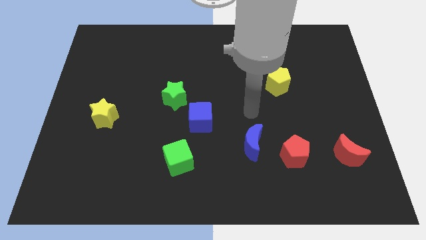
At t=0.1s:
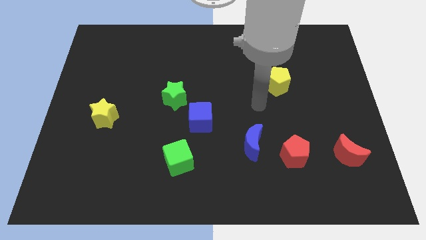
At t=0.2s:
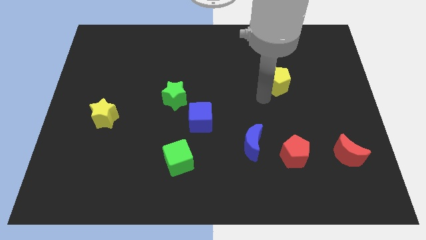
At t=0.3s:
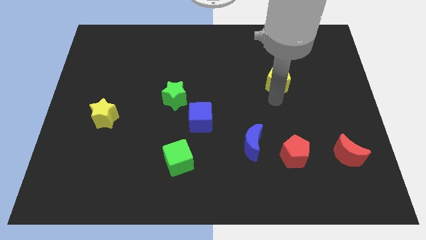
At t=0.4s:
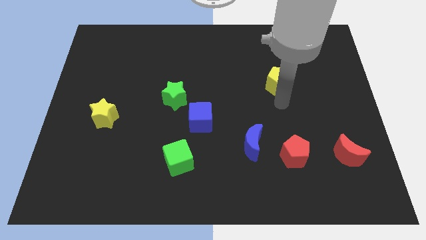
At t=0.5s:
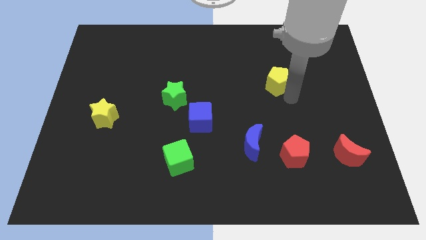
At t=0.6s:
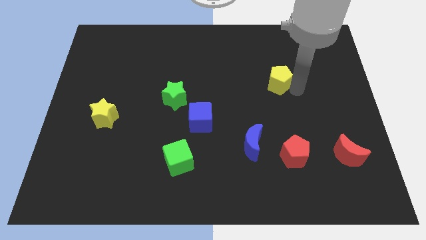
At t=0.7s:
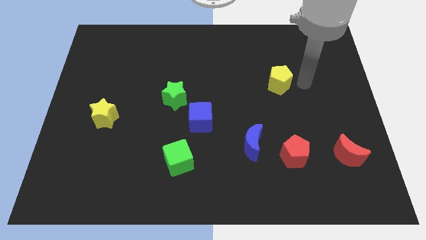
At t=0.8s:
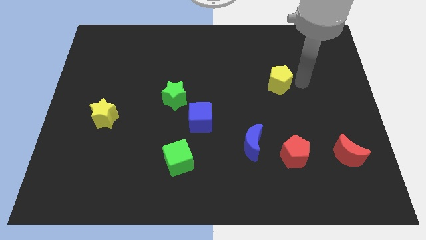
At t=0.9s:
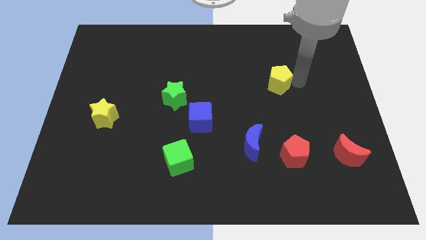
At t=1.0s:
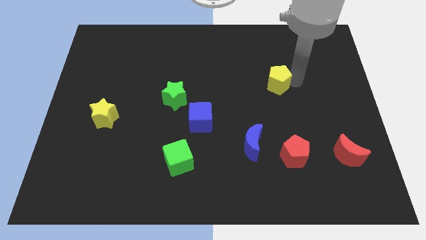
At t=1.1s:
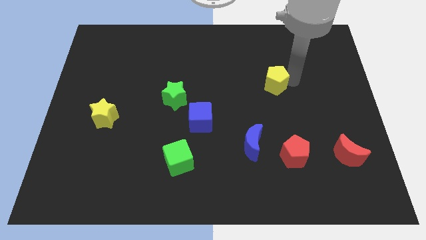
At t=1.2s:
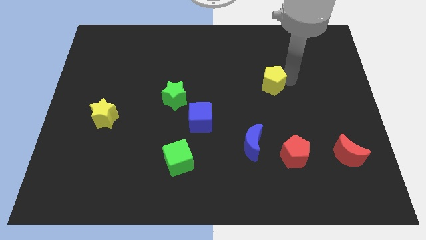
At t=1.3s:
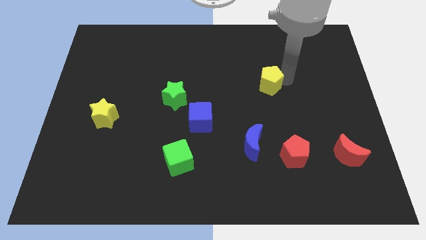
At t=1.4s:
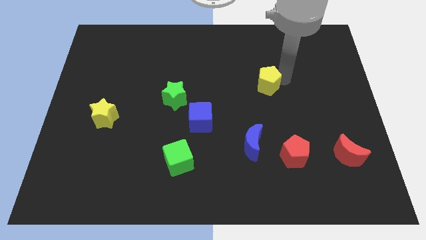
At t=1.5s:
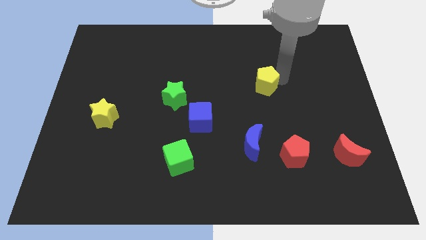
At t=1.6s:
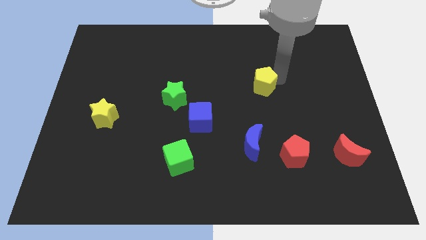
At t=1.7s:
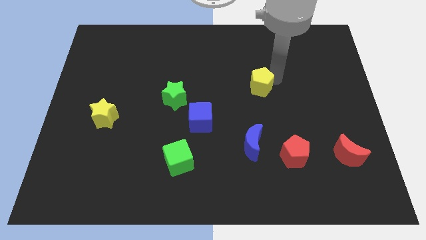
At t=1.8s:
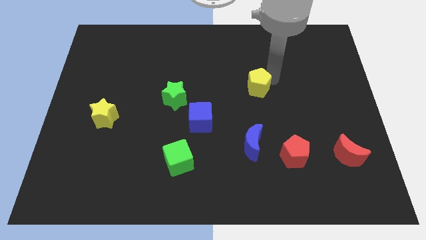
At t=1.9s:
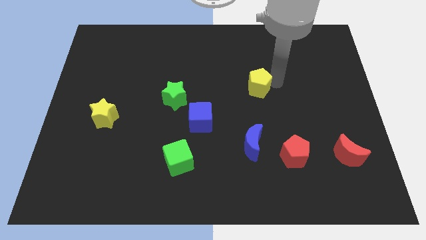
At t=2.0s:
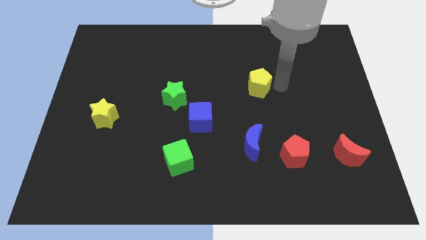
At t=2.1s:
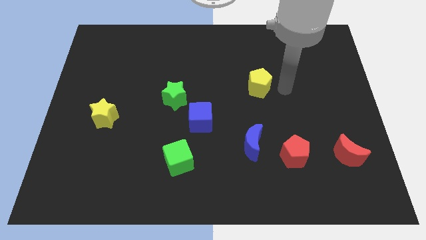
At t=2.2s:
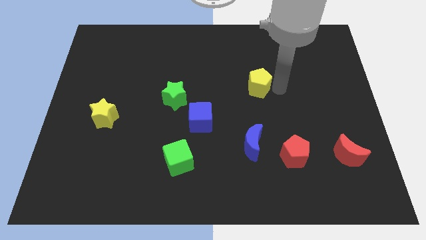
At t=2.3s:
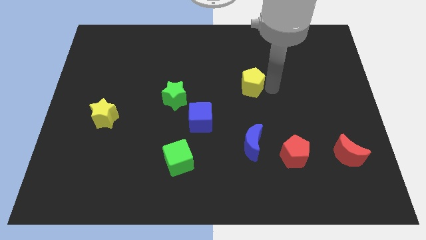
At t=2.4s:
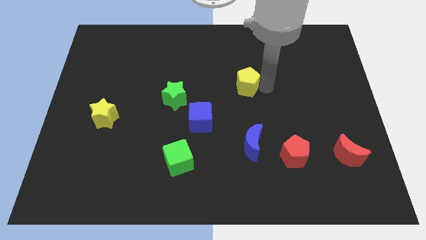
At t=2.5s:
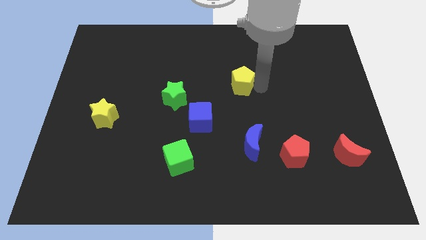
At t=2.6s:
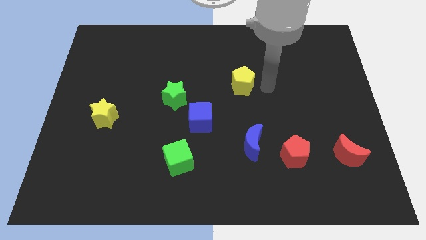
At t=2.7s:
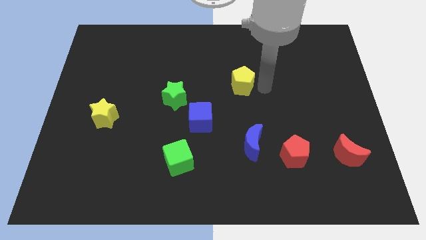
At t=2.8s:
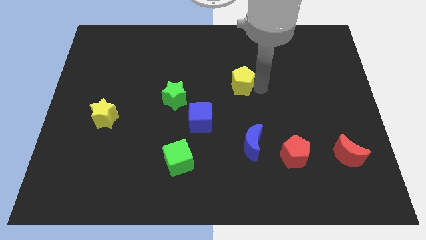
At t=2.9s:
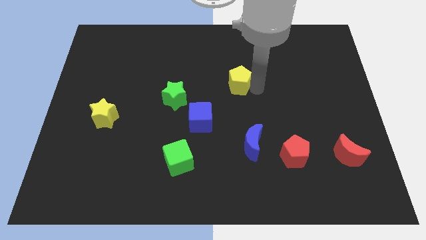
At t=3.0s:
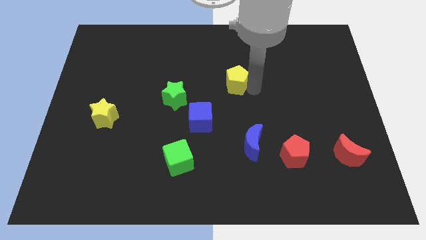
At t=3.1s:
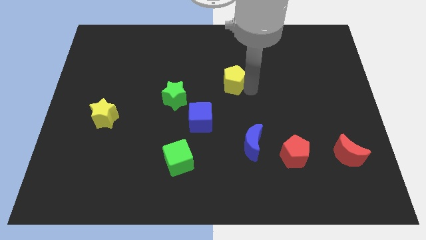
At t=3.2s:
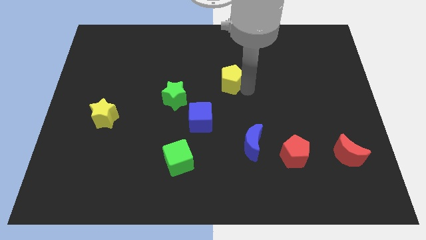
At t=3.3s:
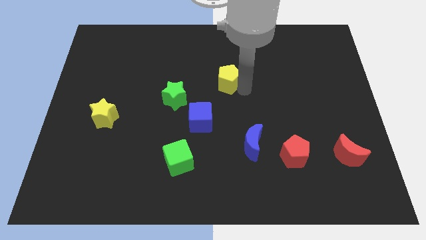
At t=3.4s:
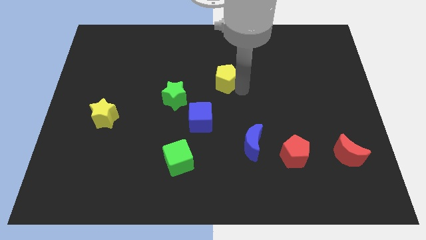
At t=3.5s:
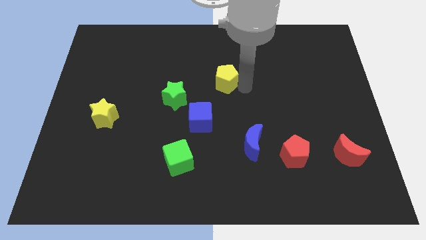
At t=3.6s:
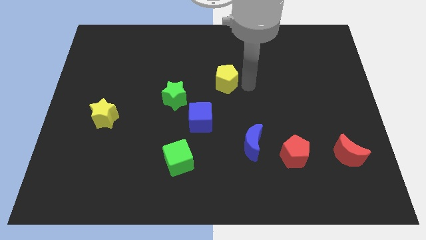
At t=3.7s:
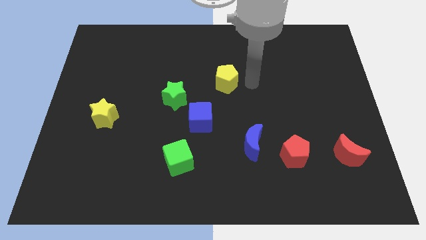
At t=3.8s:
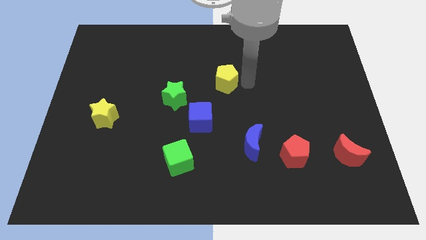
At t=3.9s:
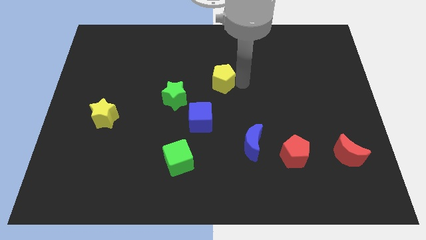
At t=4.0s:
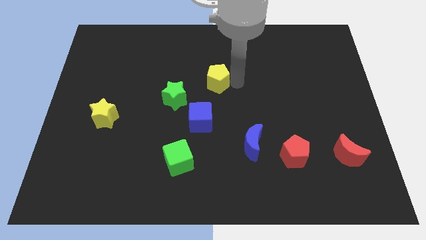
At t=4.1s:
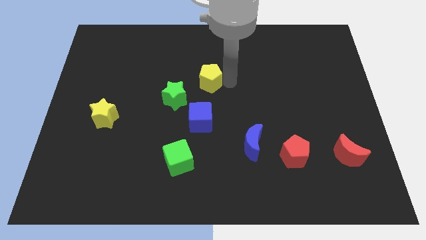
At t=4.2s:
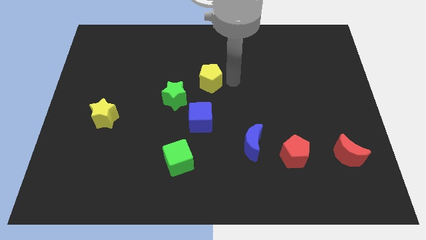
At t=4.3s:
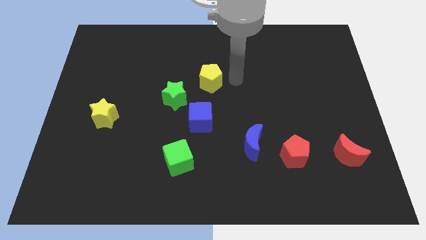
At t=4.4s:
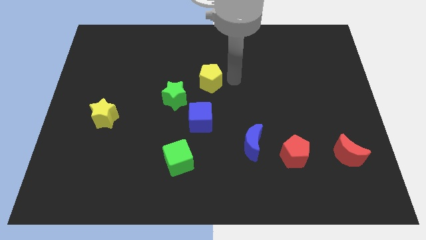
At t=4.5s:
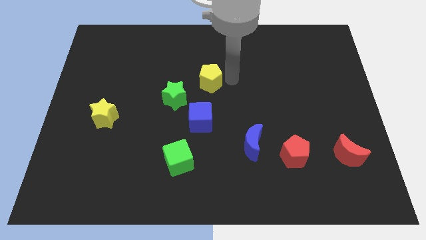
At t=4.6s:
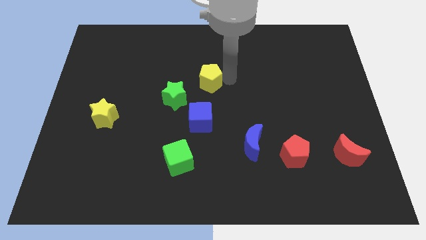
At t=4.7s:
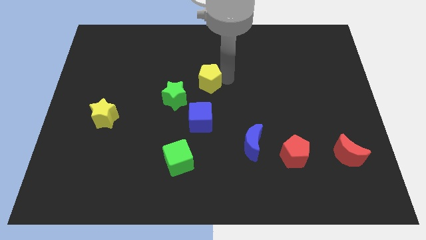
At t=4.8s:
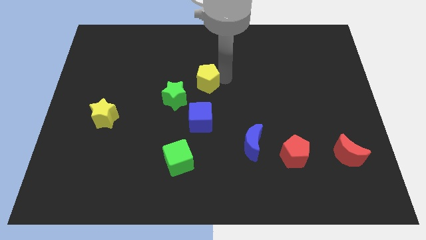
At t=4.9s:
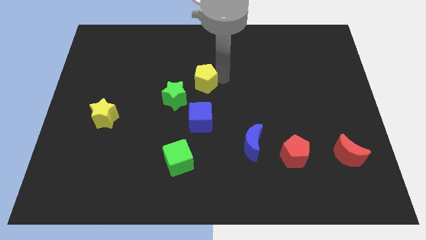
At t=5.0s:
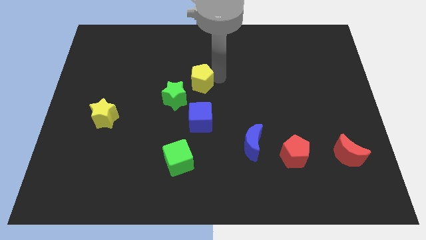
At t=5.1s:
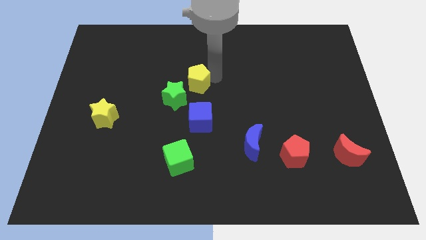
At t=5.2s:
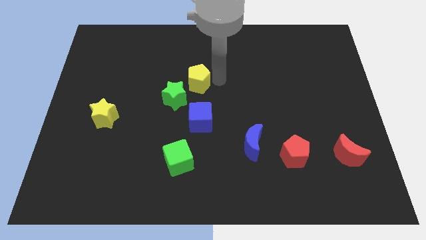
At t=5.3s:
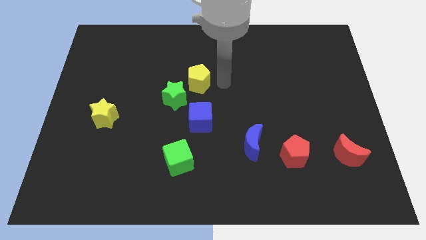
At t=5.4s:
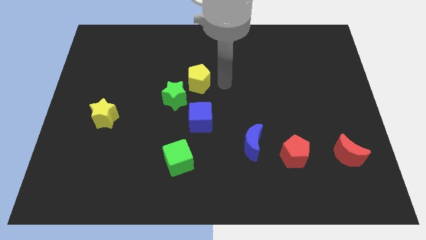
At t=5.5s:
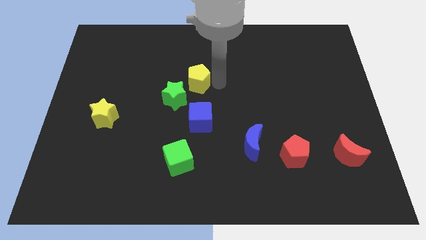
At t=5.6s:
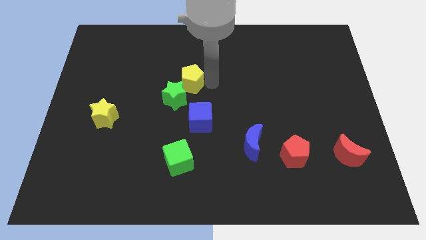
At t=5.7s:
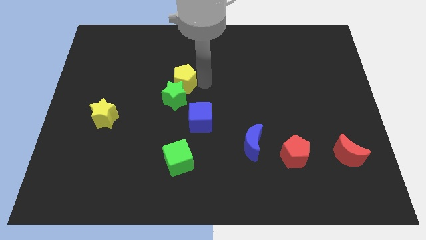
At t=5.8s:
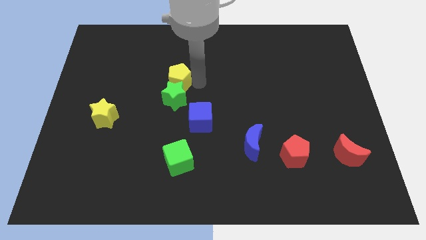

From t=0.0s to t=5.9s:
slide the yellow pentagon to the top left of the green star

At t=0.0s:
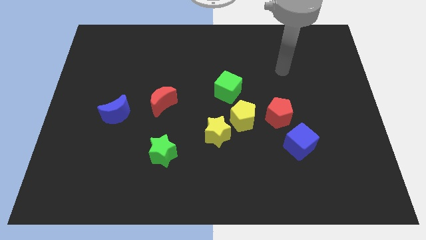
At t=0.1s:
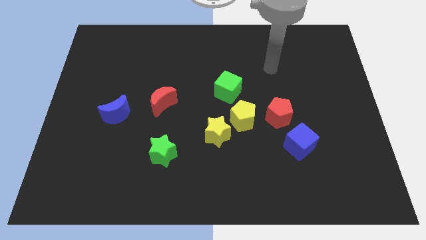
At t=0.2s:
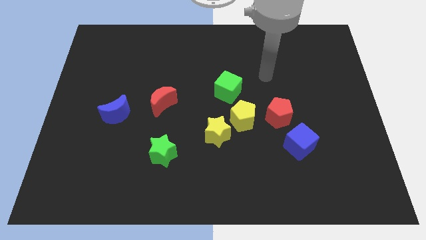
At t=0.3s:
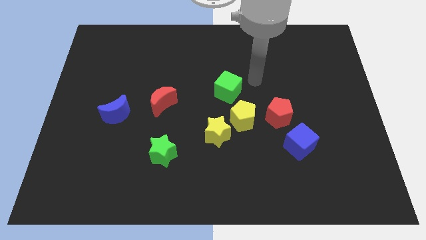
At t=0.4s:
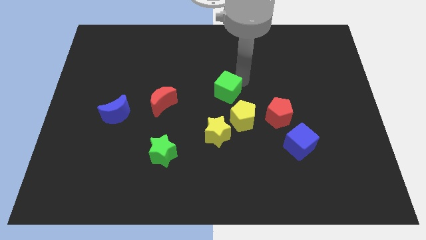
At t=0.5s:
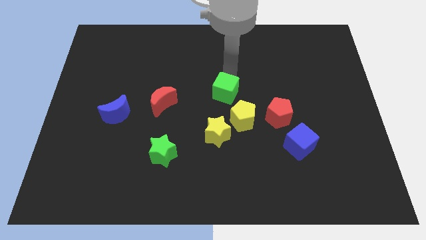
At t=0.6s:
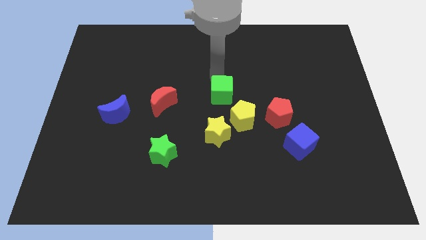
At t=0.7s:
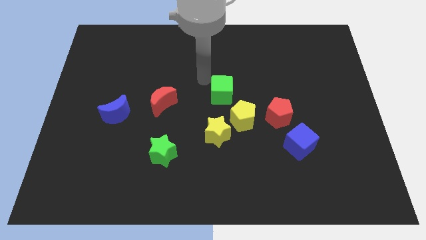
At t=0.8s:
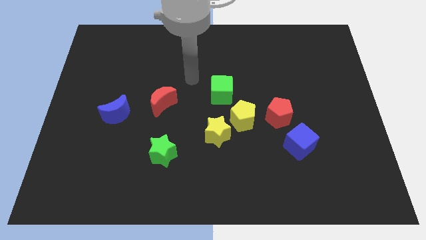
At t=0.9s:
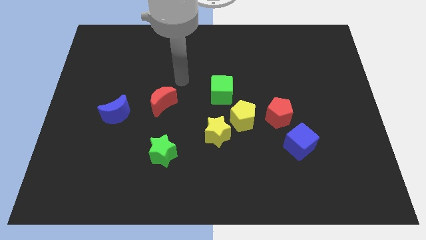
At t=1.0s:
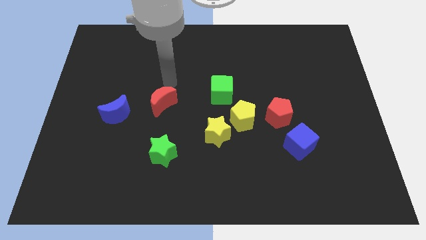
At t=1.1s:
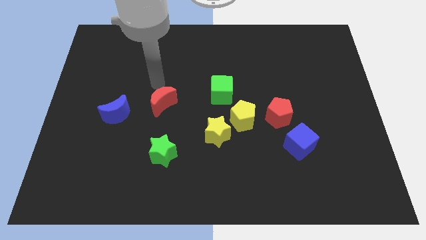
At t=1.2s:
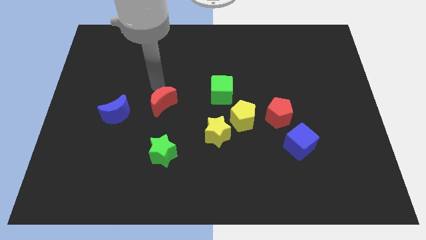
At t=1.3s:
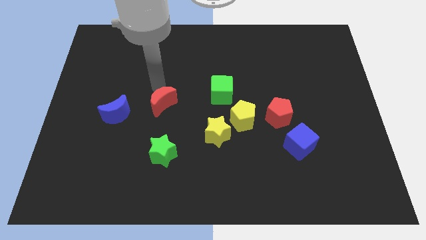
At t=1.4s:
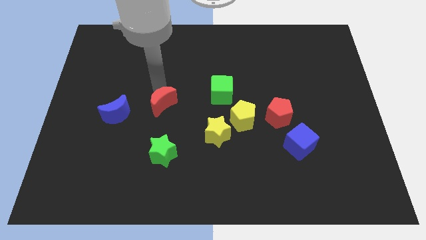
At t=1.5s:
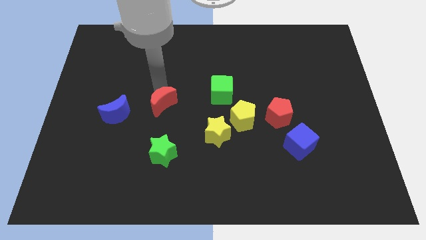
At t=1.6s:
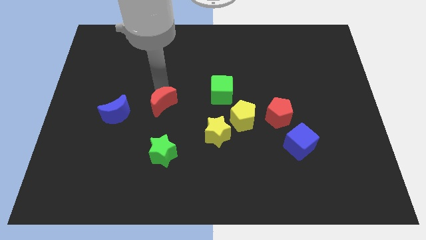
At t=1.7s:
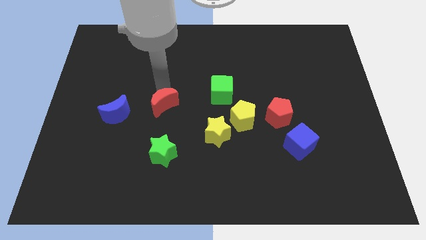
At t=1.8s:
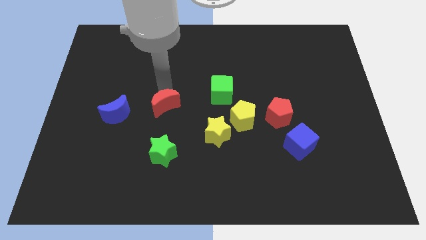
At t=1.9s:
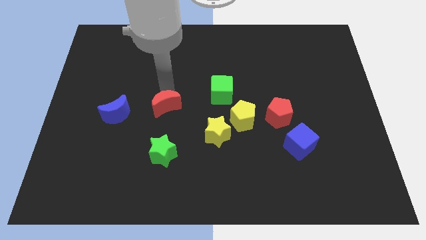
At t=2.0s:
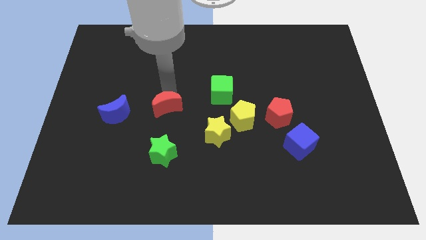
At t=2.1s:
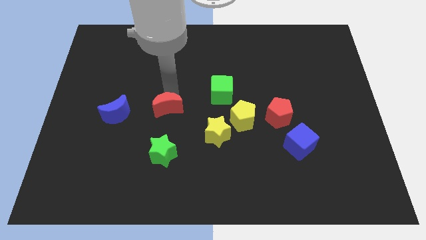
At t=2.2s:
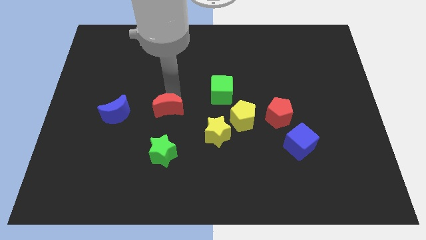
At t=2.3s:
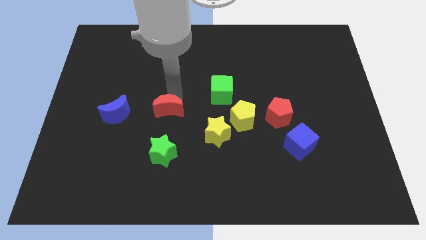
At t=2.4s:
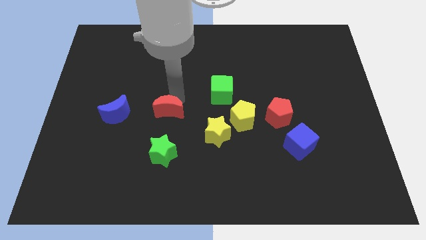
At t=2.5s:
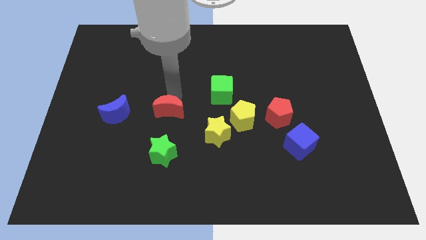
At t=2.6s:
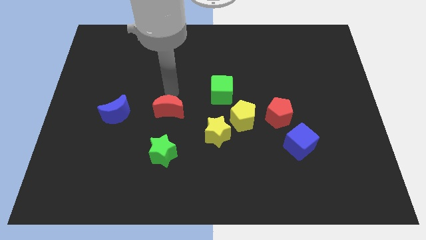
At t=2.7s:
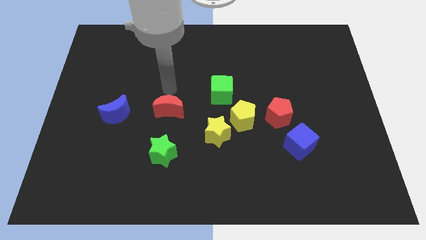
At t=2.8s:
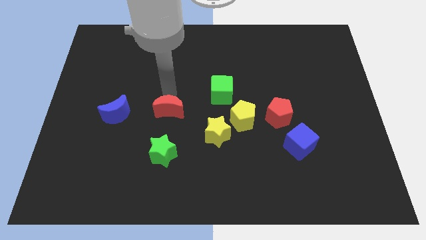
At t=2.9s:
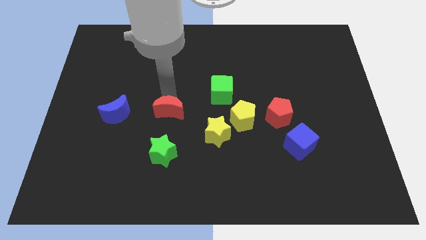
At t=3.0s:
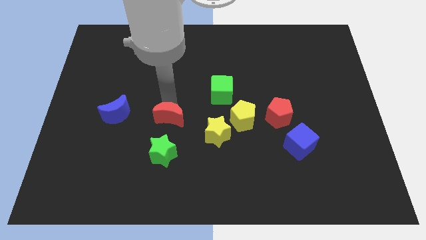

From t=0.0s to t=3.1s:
move the red moon to the left of the yellow star
